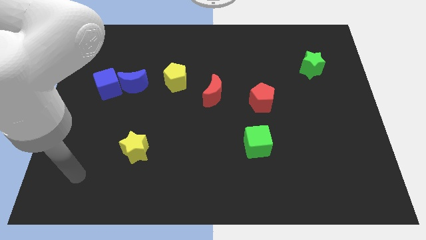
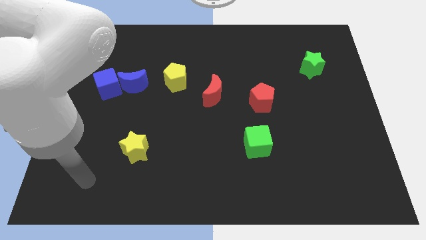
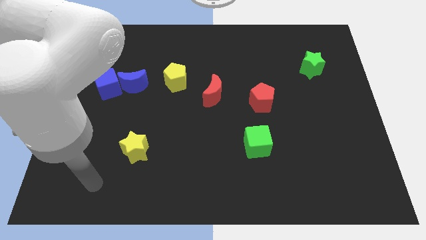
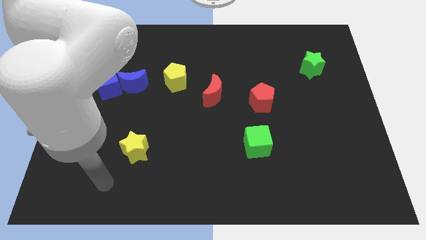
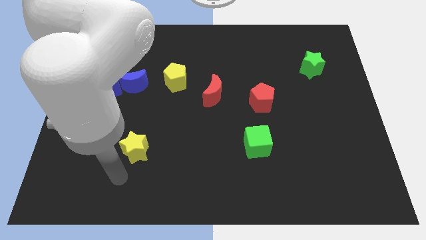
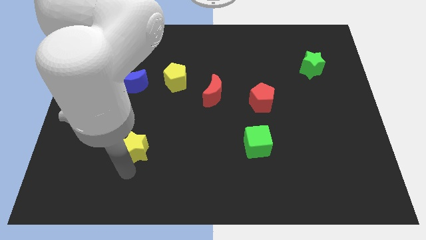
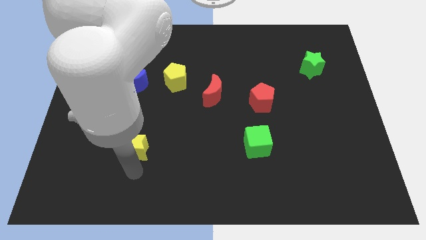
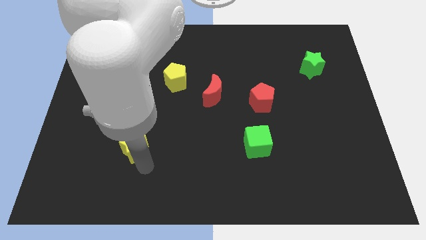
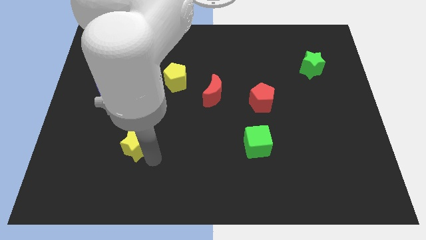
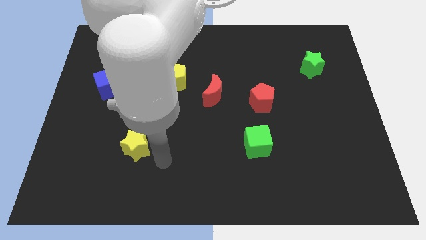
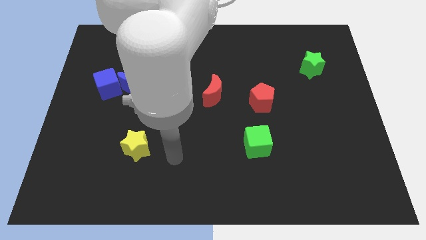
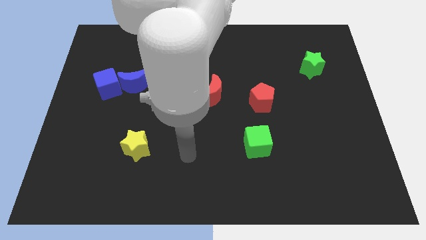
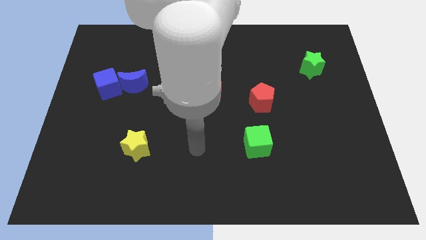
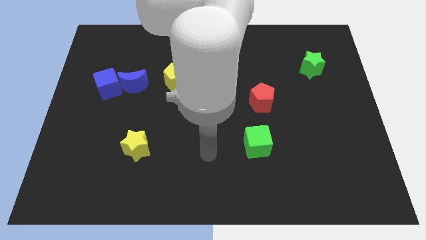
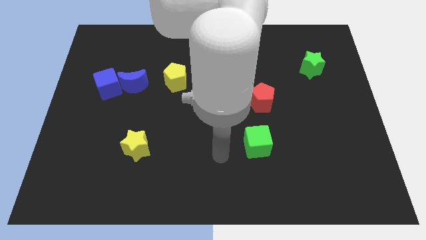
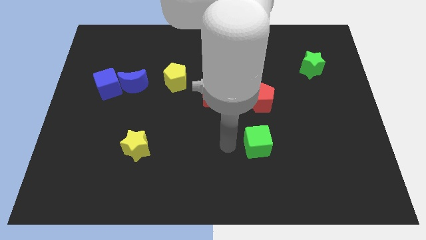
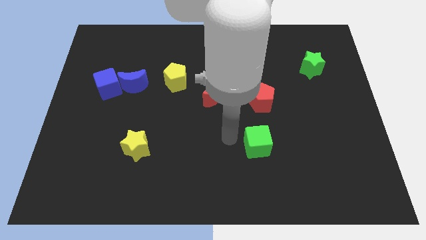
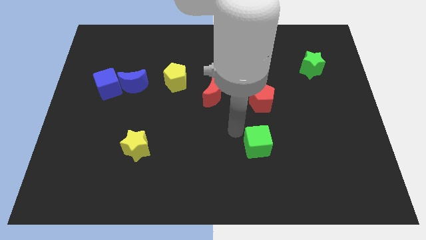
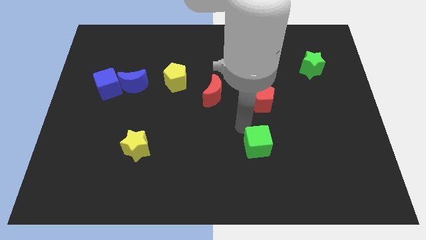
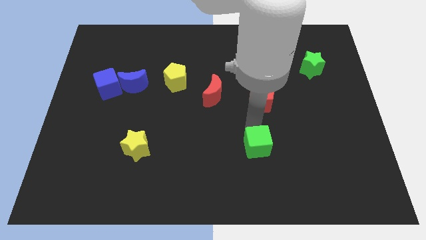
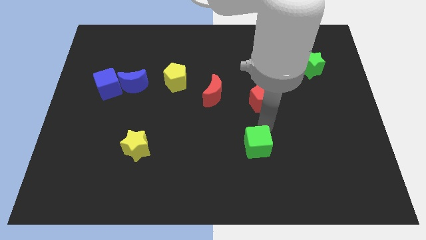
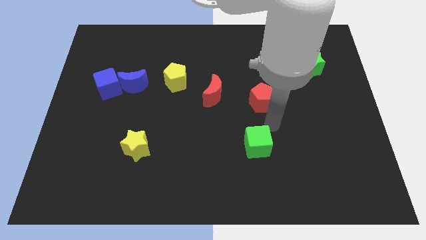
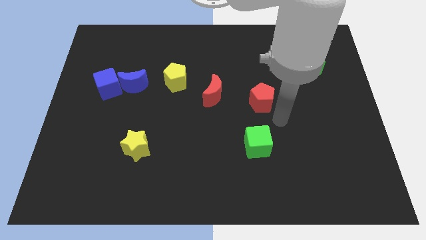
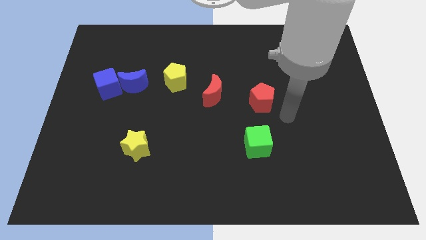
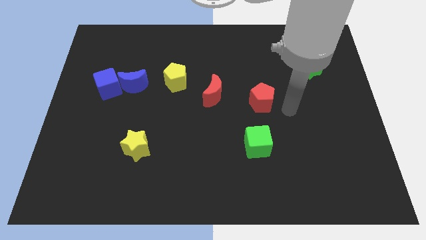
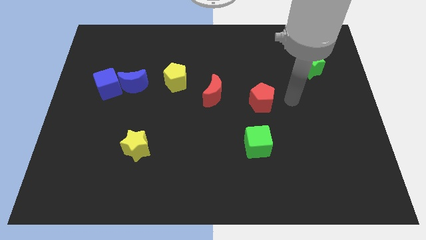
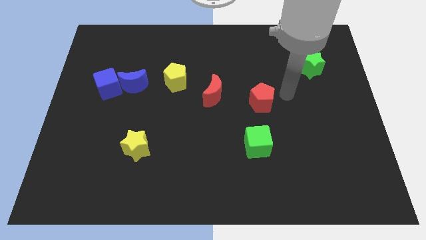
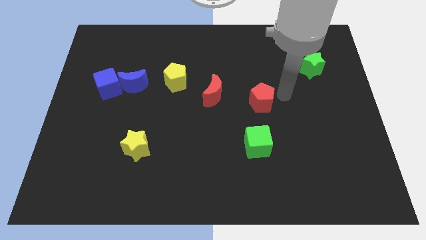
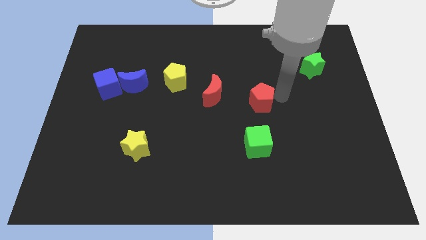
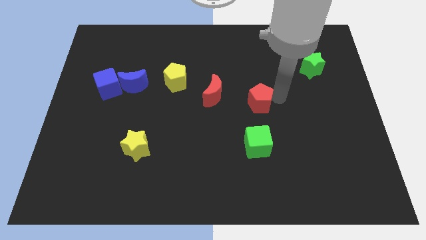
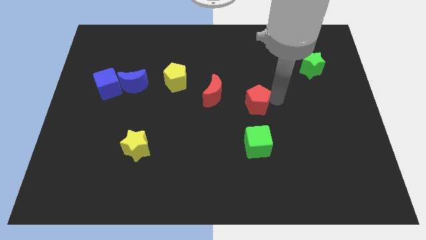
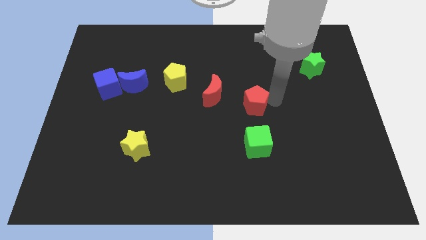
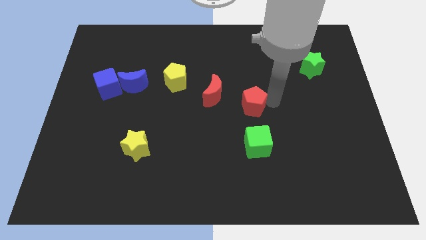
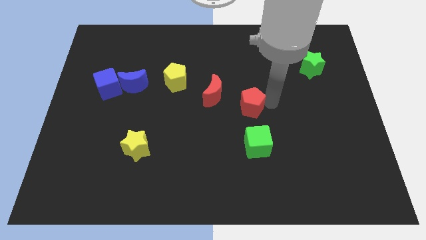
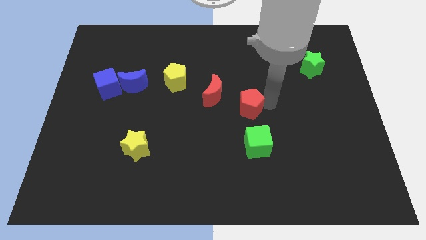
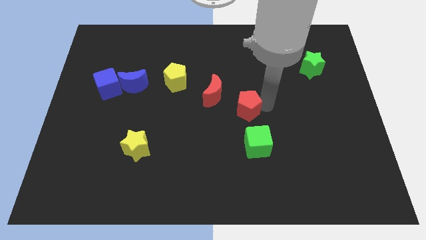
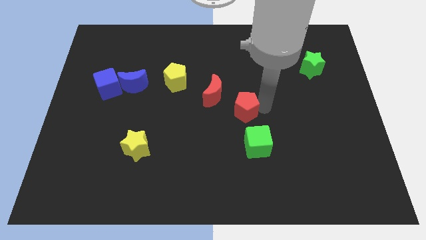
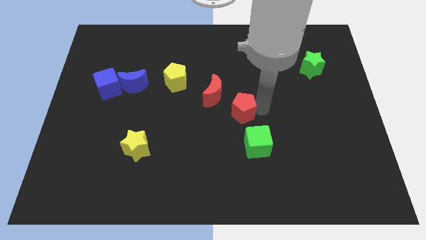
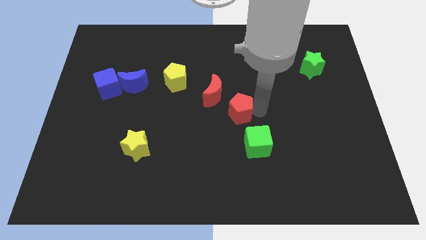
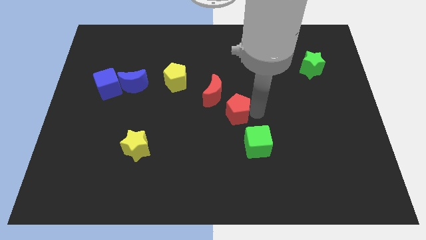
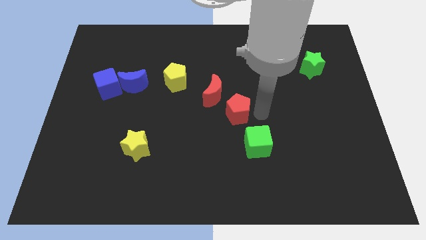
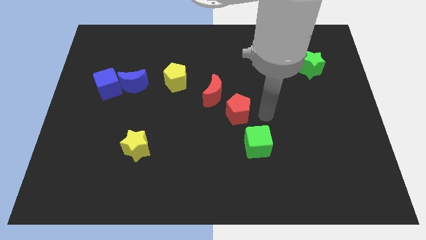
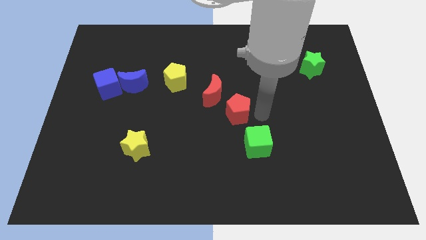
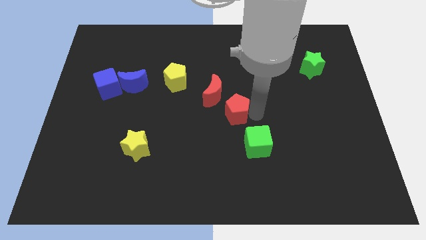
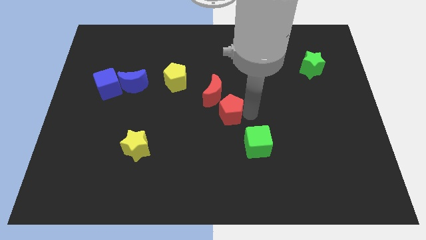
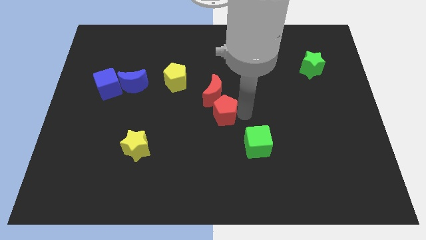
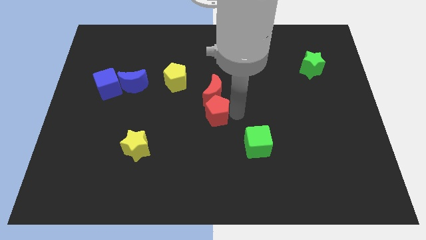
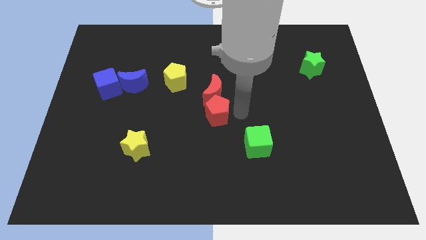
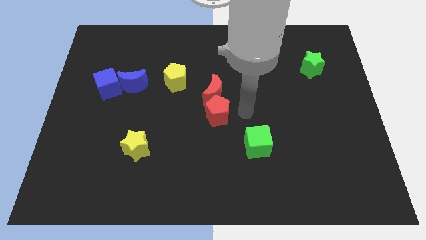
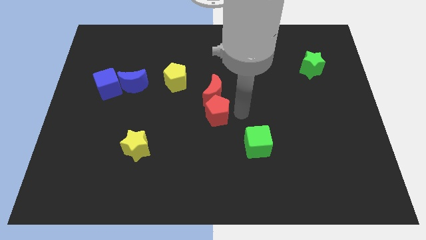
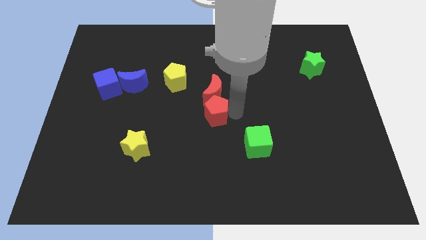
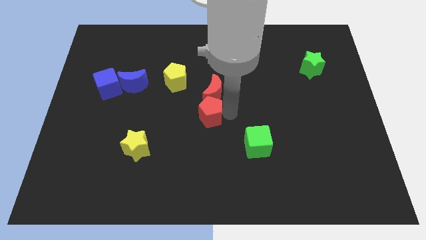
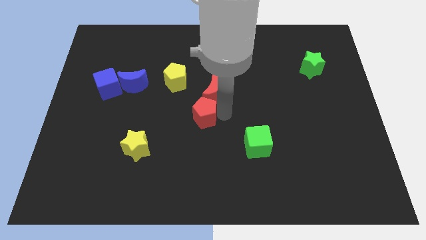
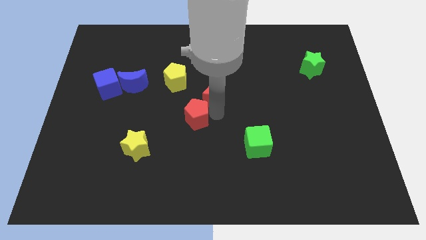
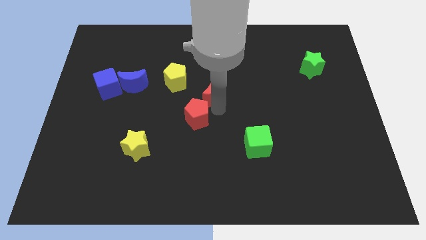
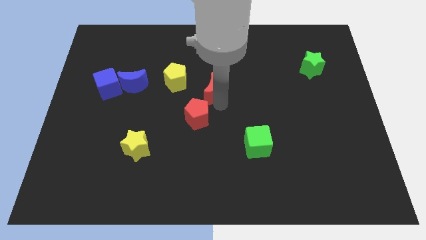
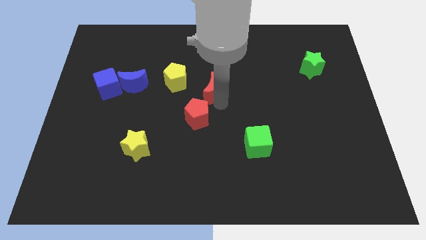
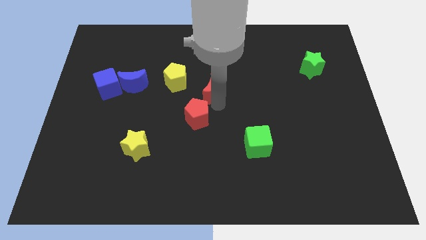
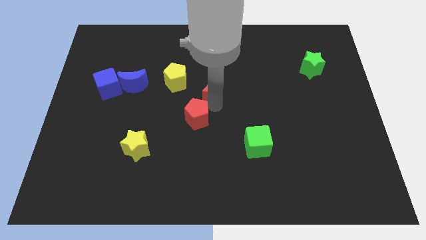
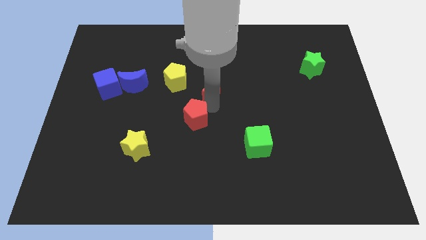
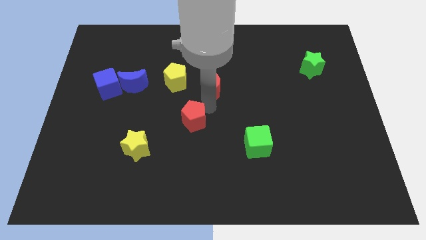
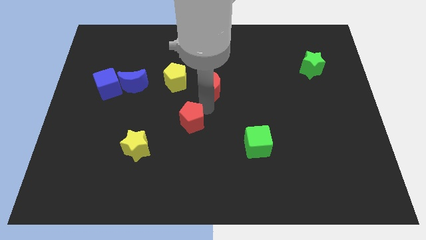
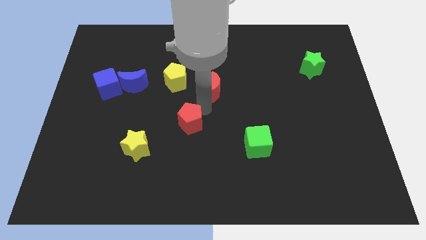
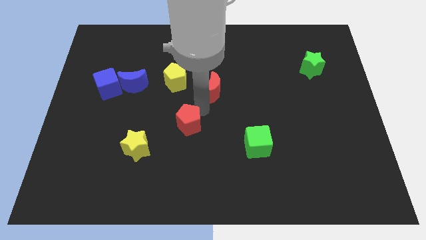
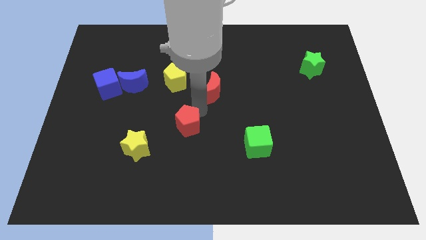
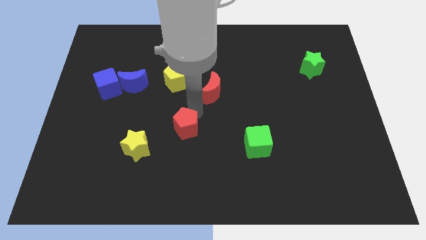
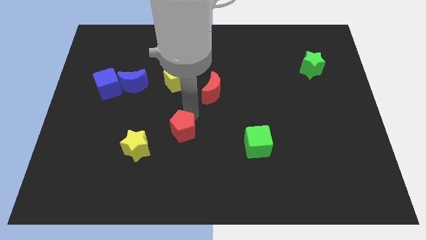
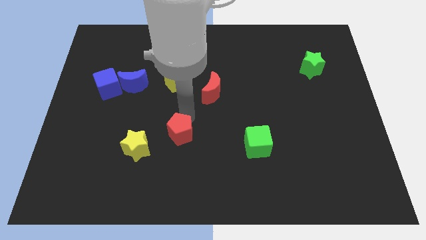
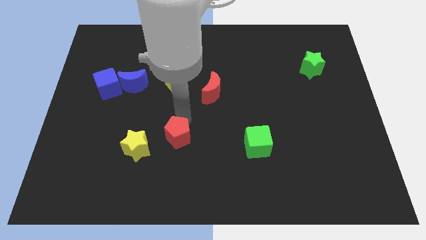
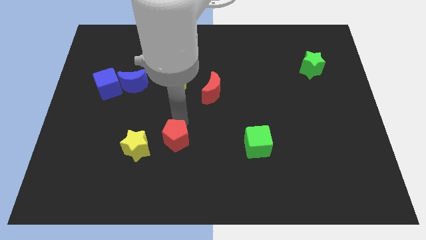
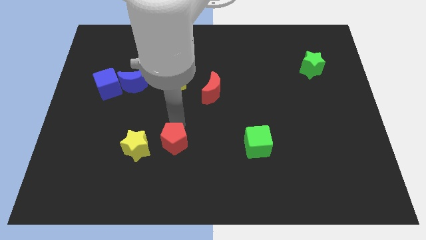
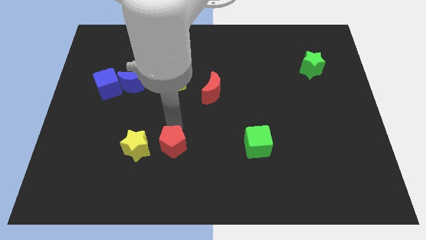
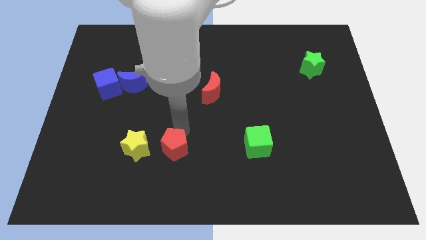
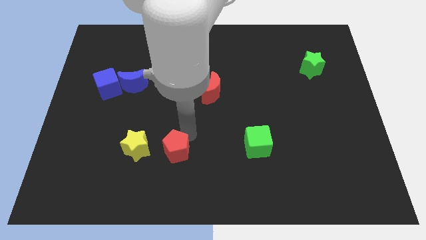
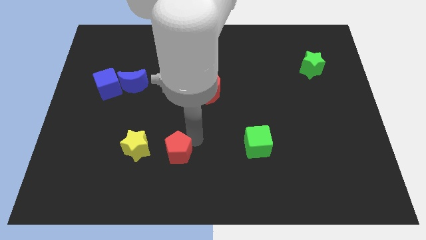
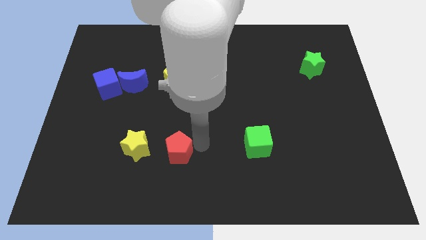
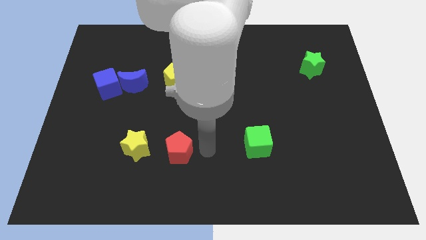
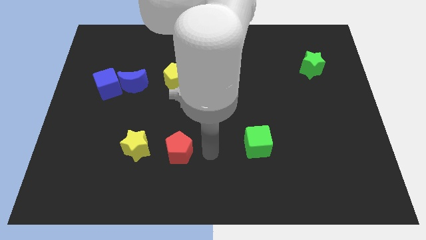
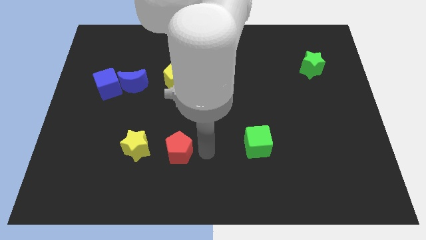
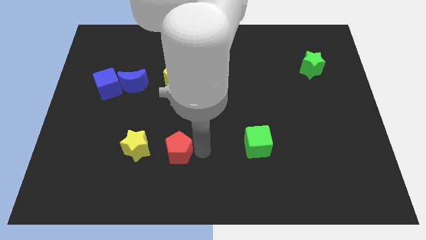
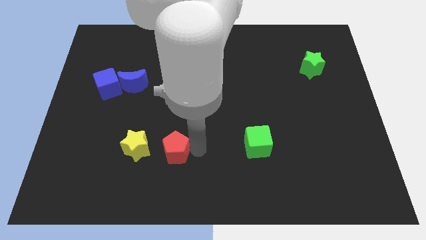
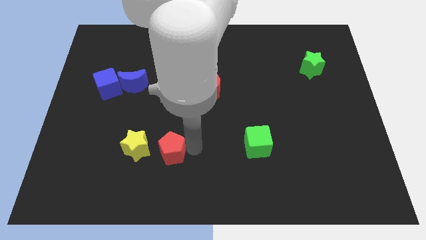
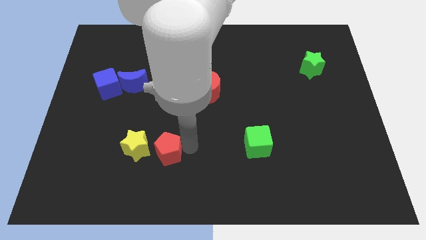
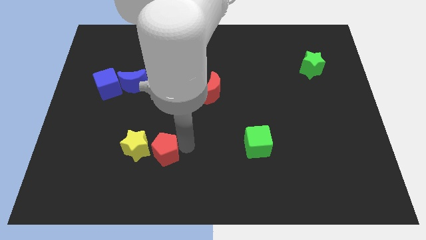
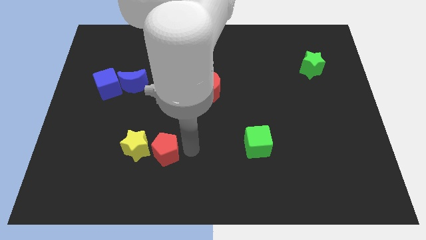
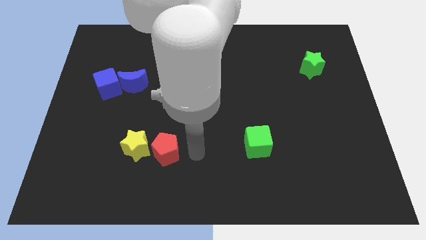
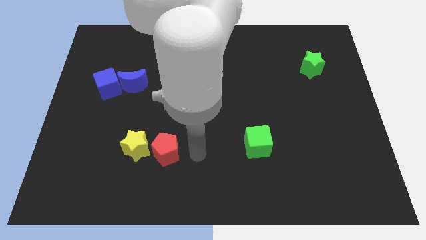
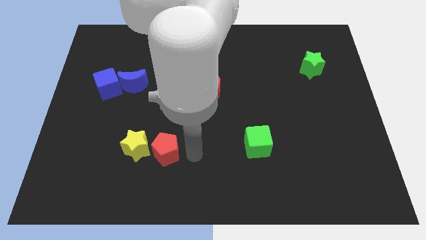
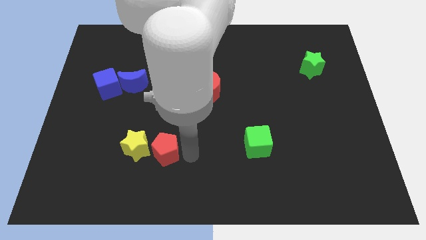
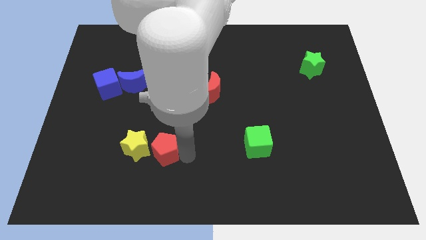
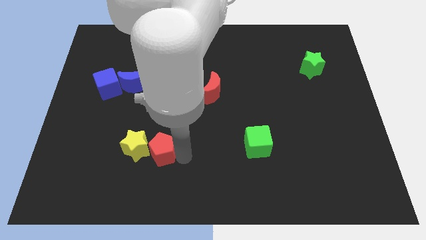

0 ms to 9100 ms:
move the red pentagon to the yellow star
